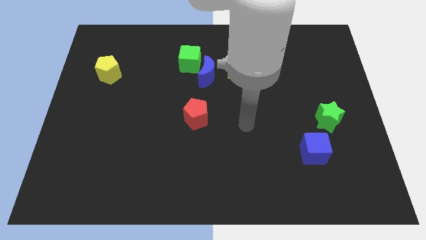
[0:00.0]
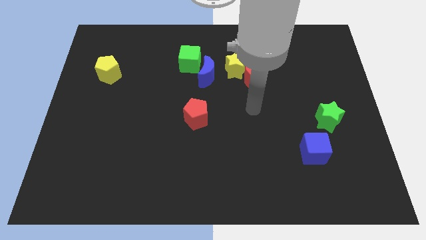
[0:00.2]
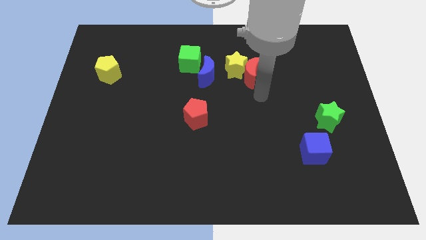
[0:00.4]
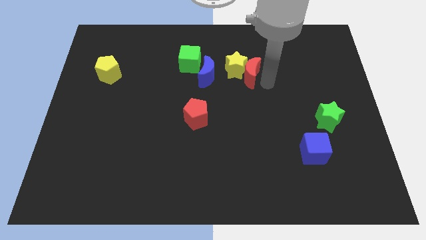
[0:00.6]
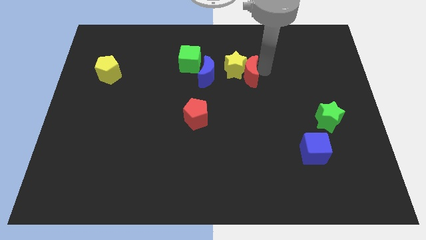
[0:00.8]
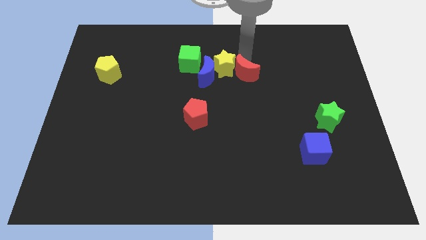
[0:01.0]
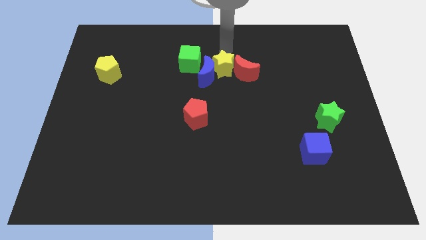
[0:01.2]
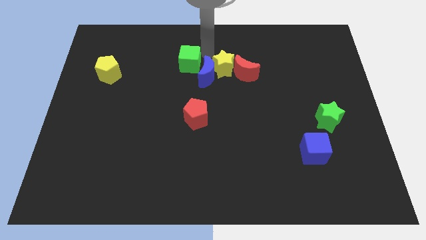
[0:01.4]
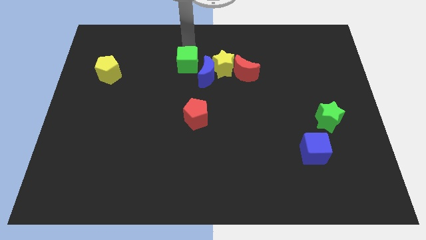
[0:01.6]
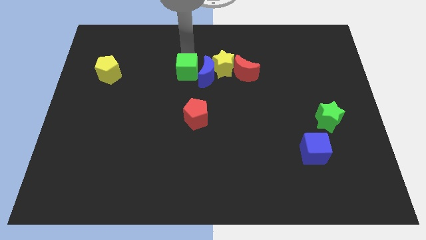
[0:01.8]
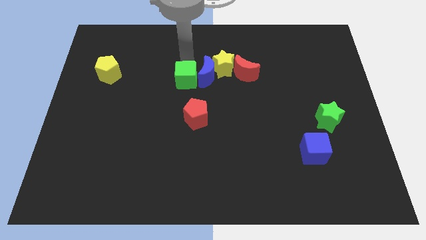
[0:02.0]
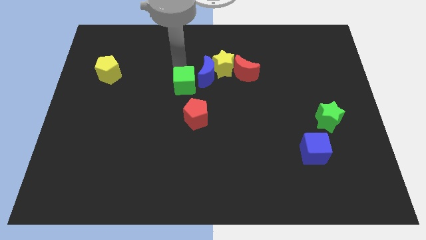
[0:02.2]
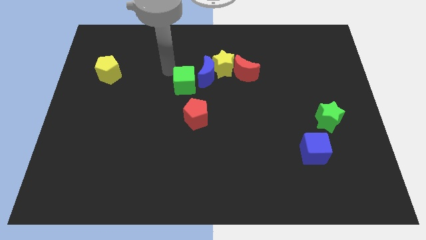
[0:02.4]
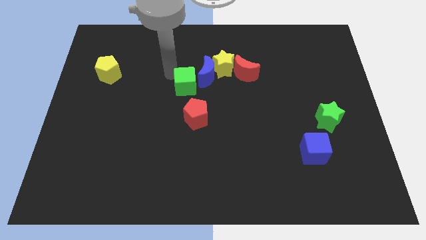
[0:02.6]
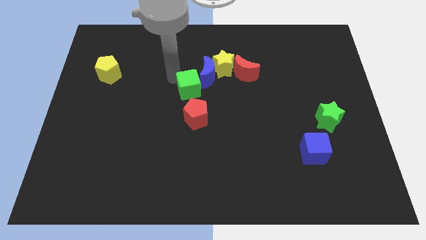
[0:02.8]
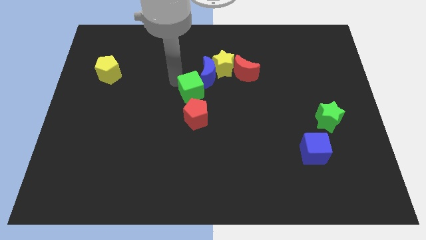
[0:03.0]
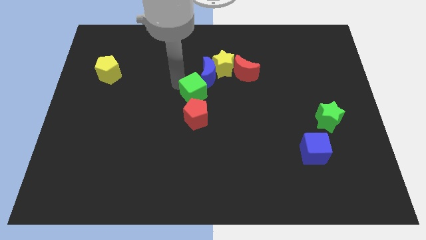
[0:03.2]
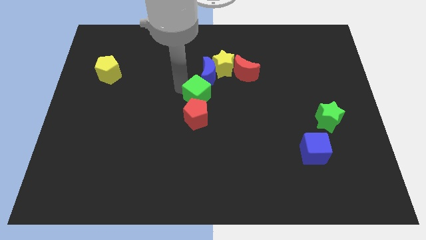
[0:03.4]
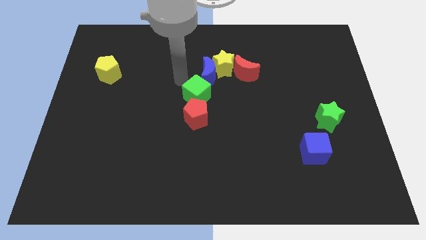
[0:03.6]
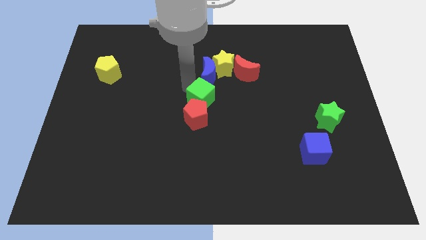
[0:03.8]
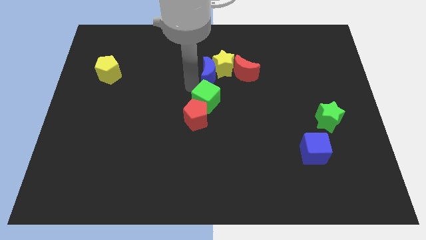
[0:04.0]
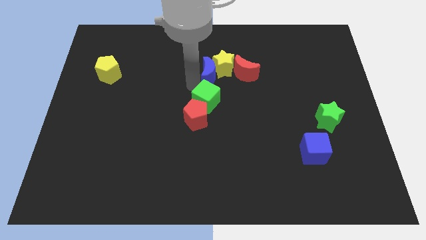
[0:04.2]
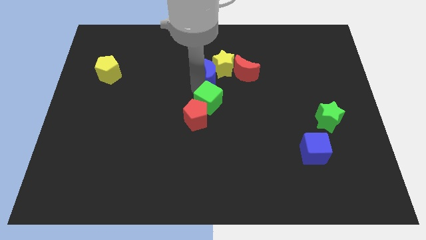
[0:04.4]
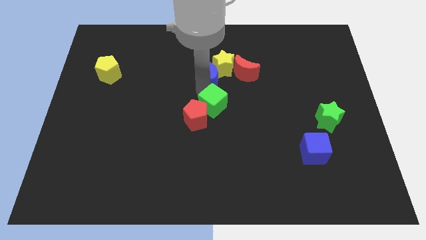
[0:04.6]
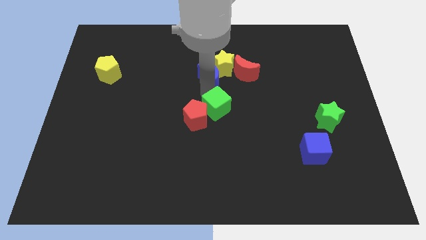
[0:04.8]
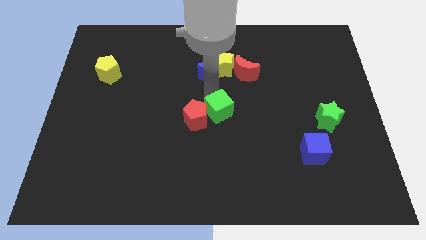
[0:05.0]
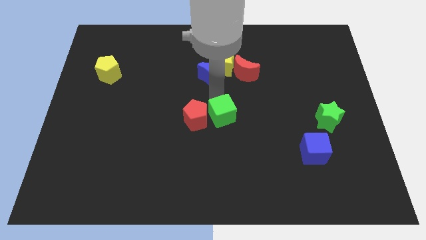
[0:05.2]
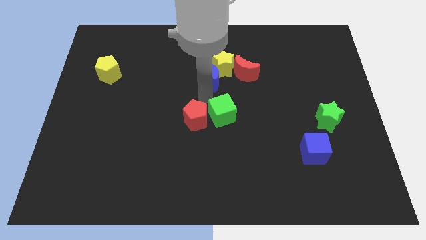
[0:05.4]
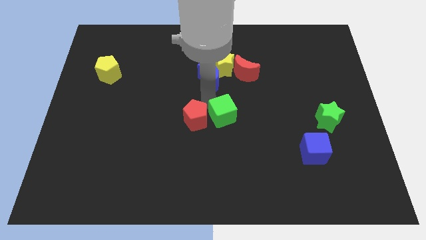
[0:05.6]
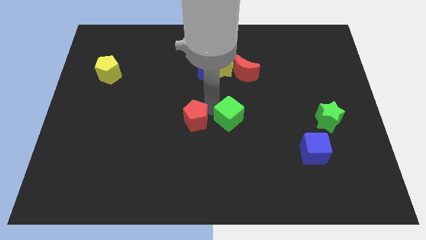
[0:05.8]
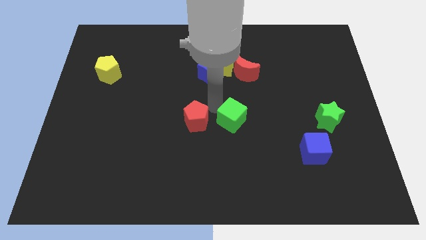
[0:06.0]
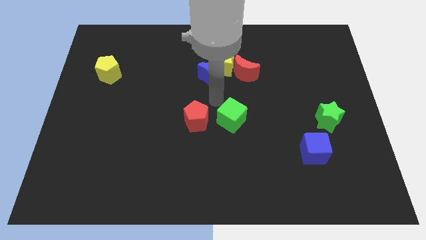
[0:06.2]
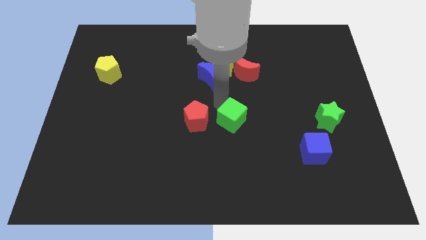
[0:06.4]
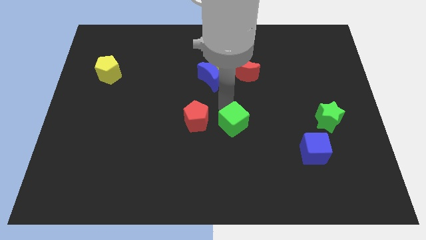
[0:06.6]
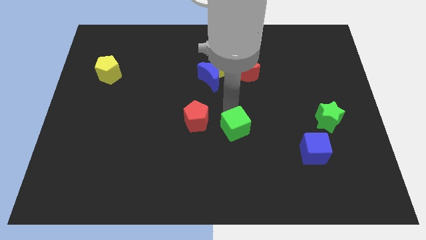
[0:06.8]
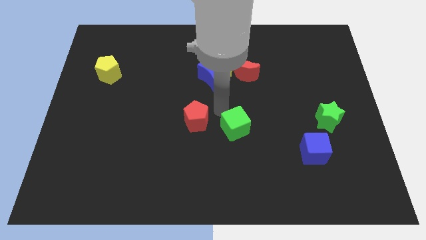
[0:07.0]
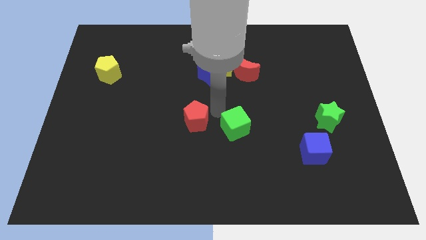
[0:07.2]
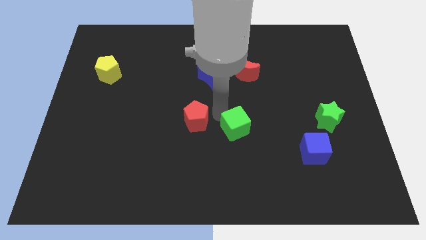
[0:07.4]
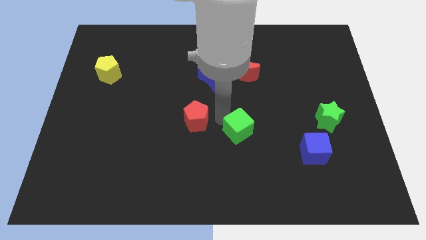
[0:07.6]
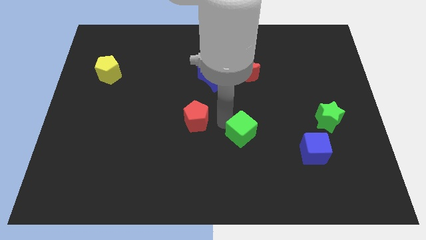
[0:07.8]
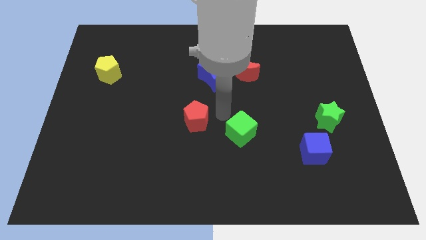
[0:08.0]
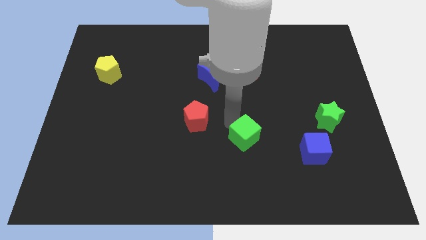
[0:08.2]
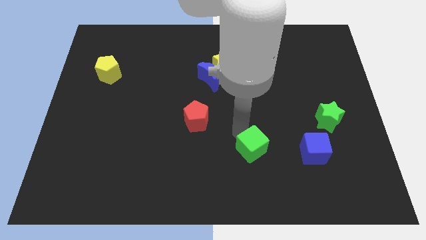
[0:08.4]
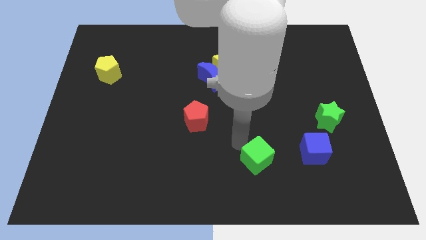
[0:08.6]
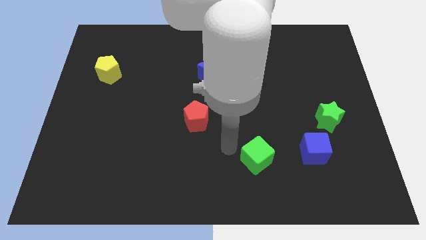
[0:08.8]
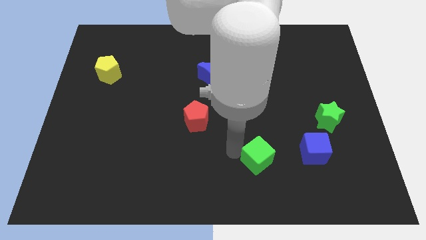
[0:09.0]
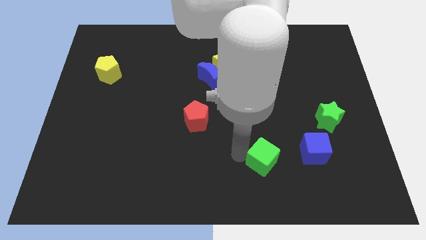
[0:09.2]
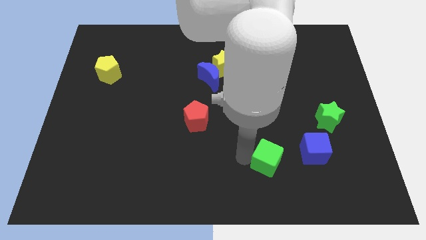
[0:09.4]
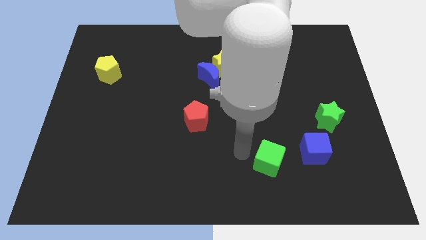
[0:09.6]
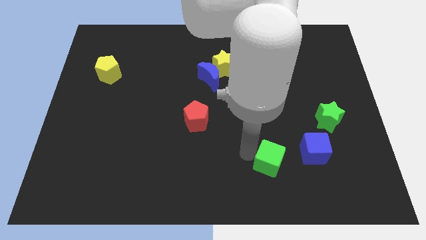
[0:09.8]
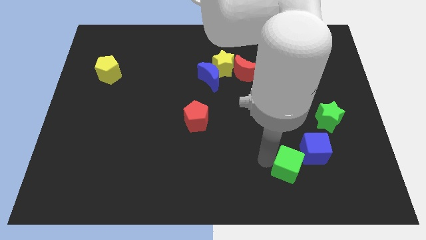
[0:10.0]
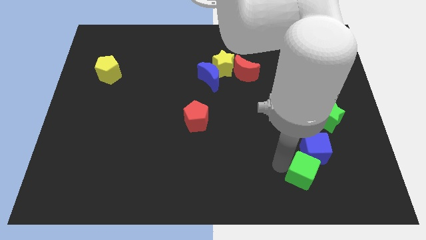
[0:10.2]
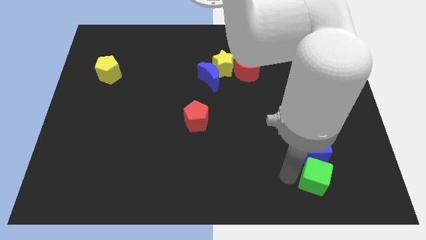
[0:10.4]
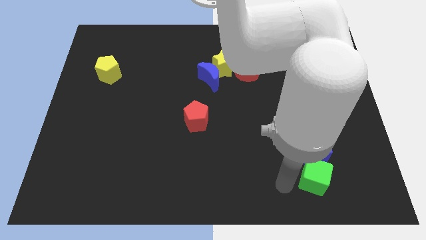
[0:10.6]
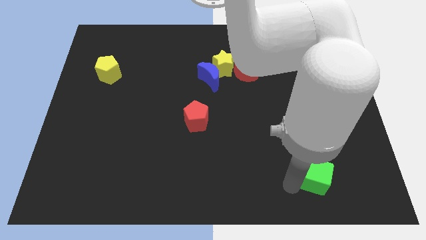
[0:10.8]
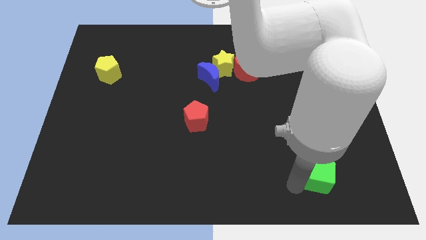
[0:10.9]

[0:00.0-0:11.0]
put the green cube to the bottom right of the blue cube

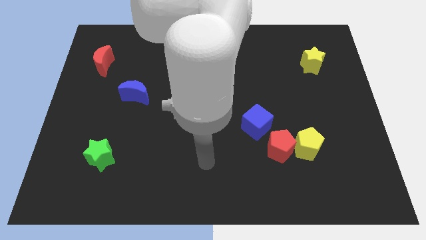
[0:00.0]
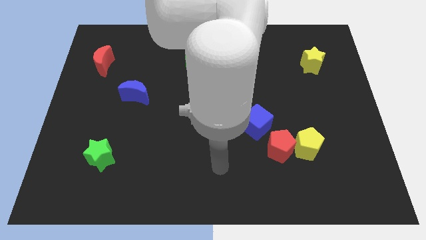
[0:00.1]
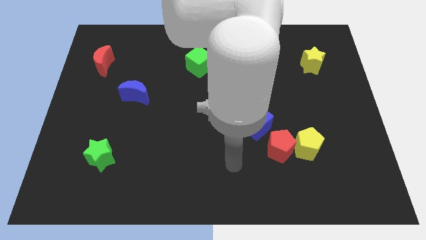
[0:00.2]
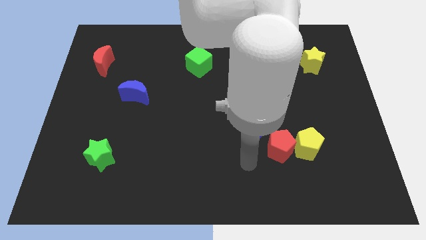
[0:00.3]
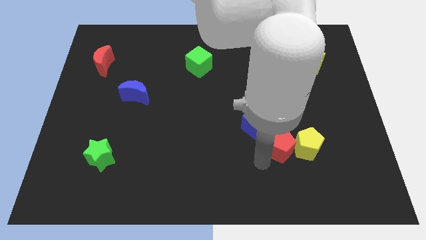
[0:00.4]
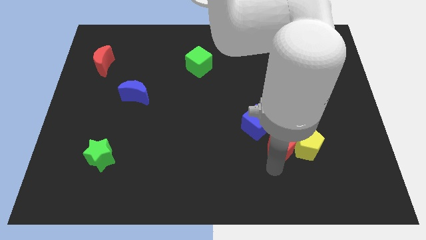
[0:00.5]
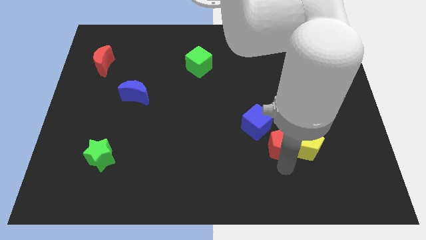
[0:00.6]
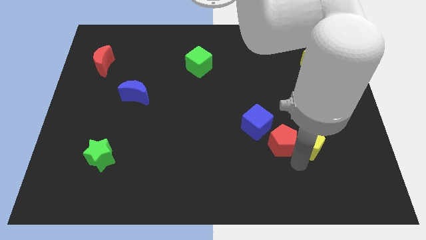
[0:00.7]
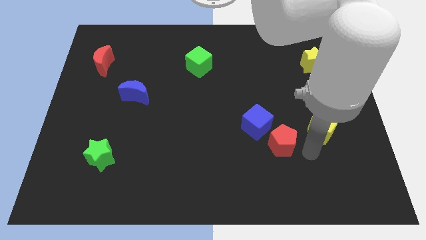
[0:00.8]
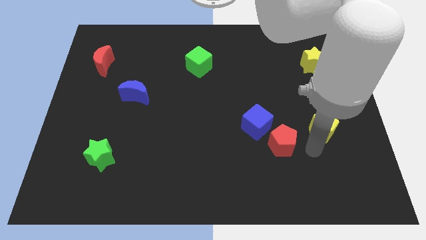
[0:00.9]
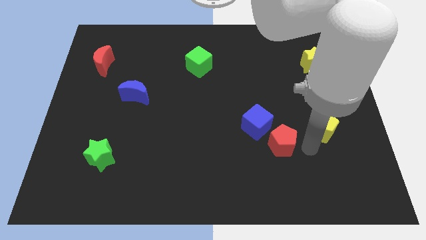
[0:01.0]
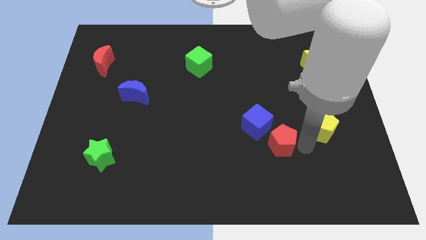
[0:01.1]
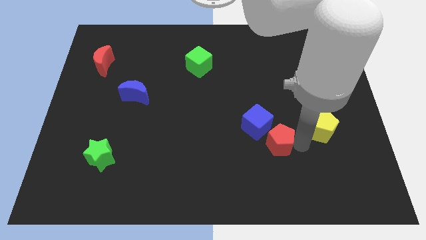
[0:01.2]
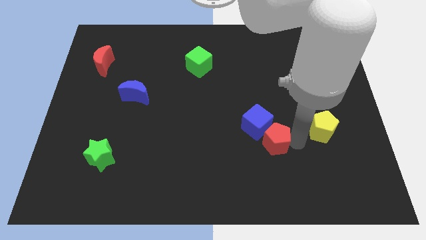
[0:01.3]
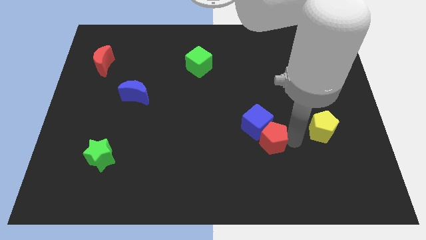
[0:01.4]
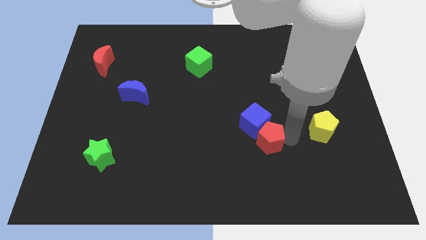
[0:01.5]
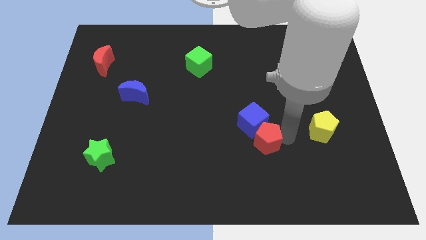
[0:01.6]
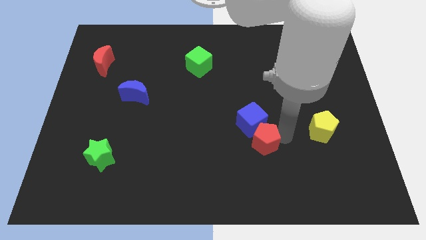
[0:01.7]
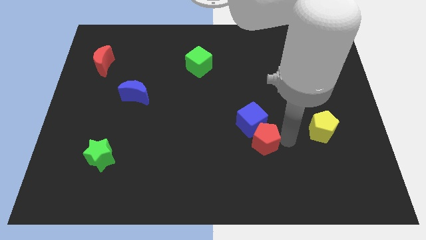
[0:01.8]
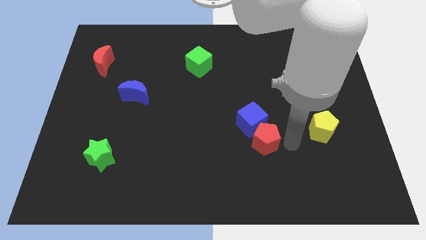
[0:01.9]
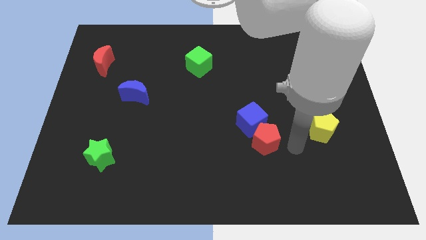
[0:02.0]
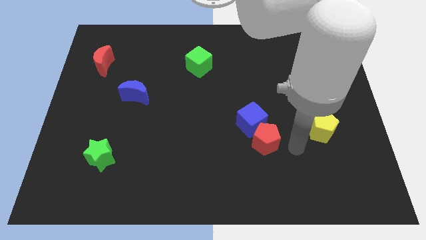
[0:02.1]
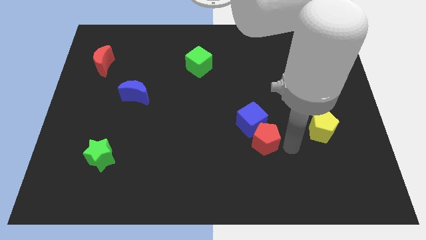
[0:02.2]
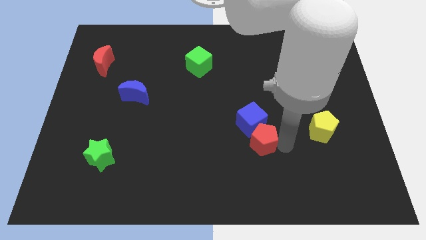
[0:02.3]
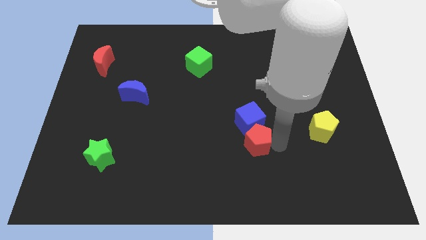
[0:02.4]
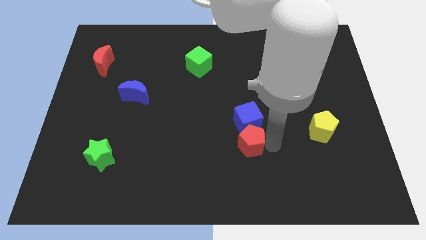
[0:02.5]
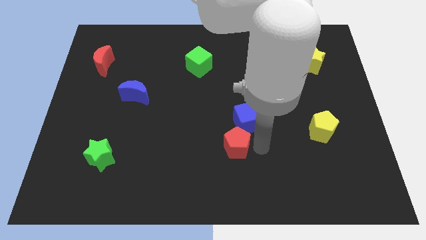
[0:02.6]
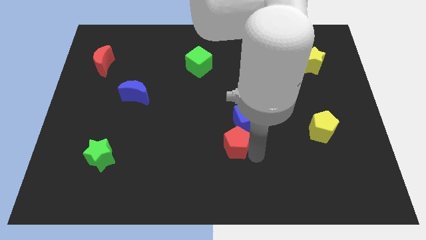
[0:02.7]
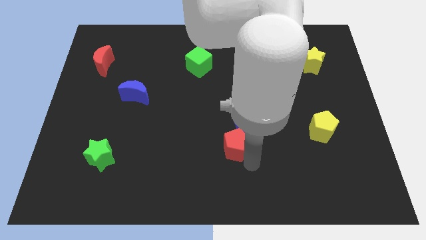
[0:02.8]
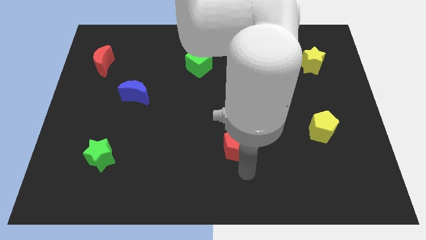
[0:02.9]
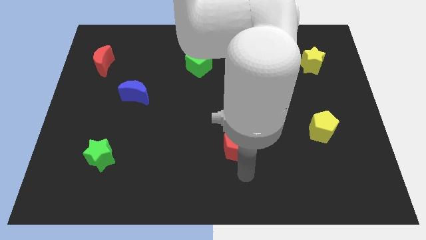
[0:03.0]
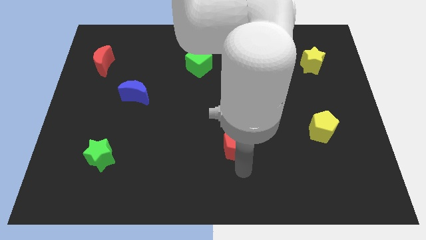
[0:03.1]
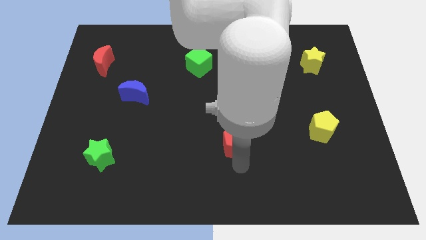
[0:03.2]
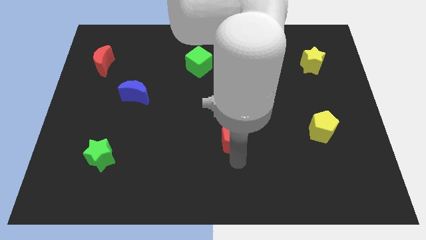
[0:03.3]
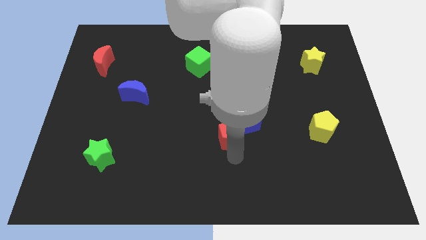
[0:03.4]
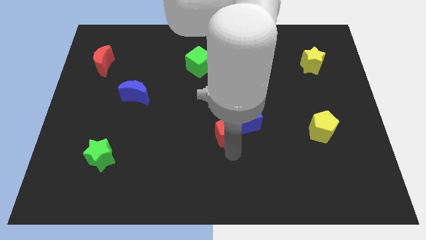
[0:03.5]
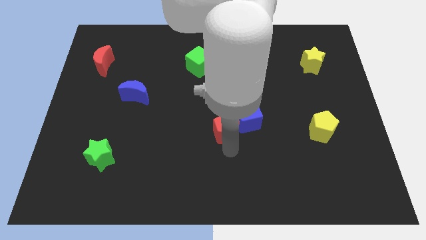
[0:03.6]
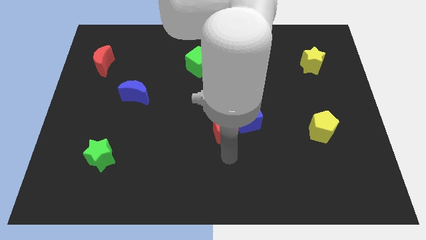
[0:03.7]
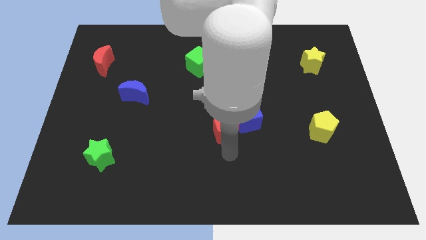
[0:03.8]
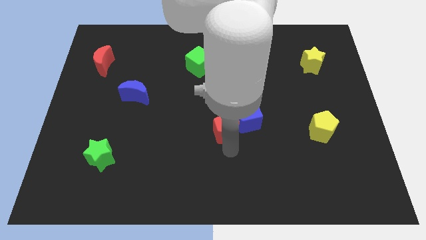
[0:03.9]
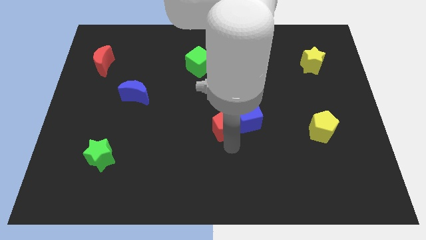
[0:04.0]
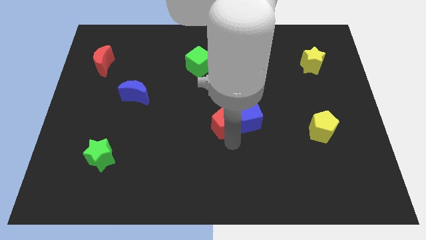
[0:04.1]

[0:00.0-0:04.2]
put the red pentagon to the top left side of the blue cube
